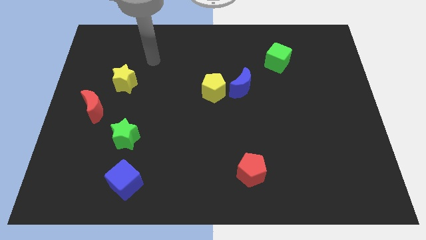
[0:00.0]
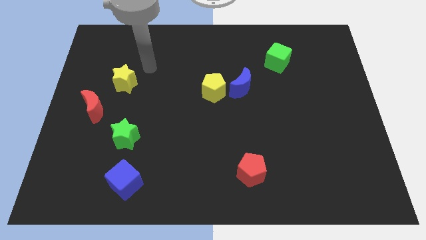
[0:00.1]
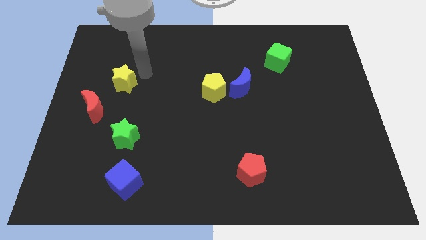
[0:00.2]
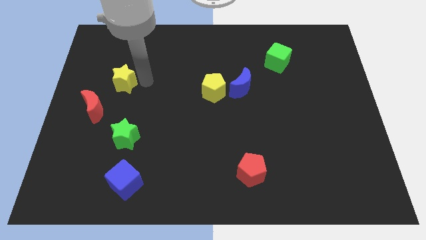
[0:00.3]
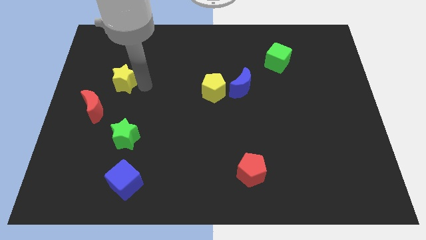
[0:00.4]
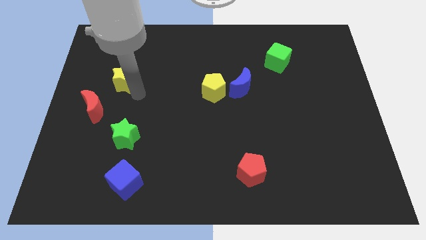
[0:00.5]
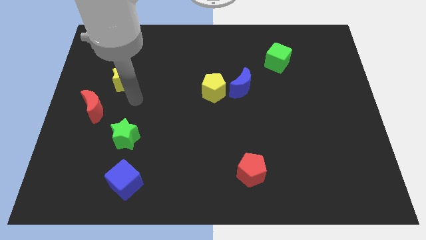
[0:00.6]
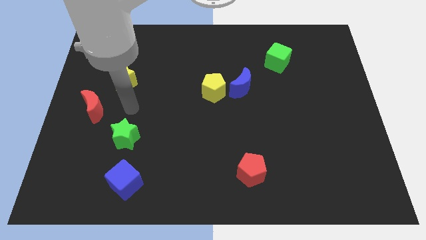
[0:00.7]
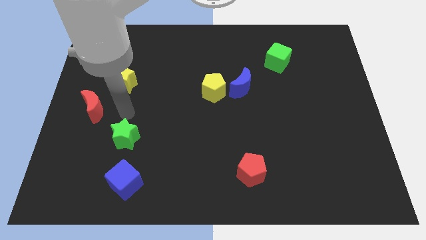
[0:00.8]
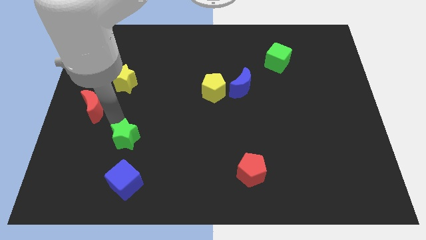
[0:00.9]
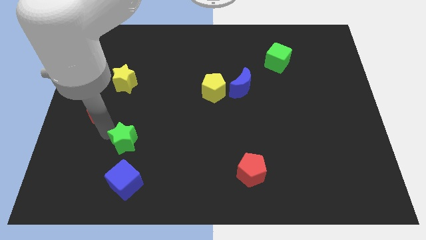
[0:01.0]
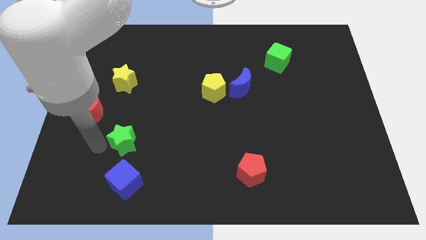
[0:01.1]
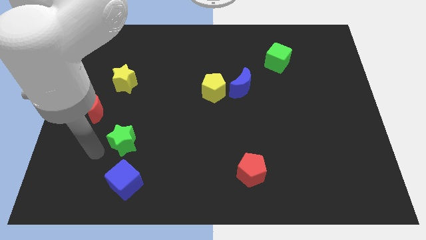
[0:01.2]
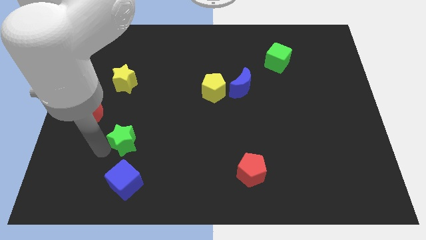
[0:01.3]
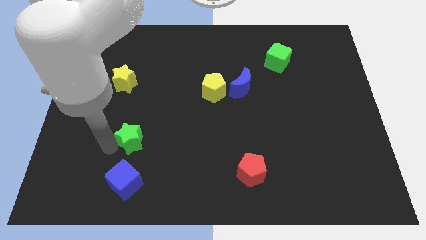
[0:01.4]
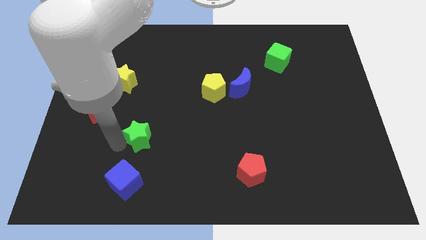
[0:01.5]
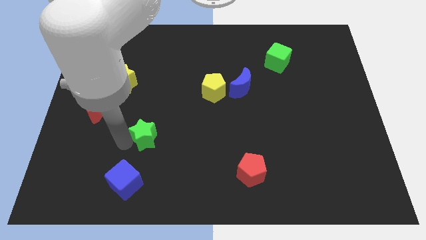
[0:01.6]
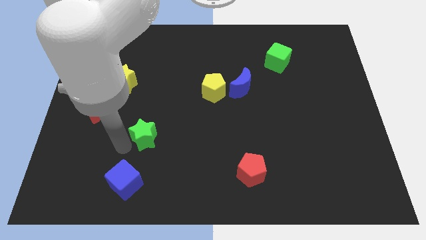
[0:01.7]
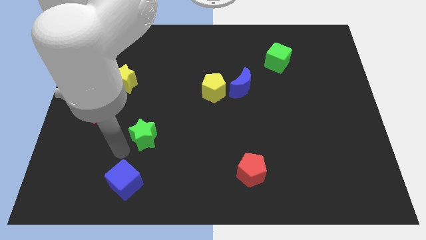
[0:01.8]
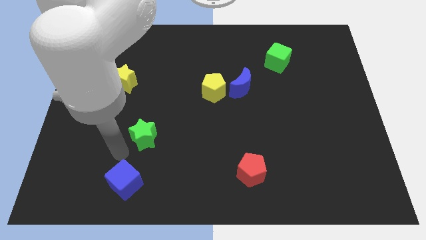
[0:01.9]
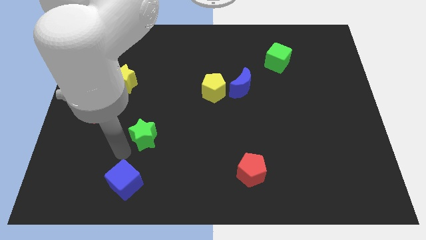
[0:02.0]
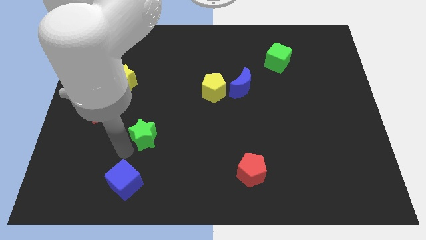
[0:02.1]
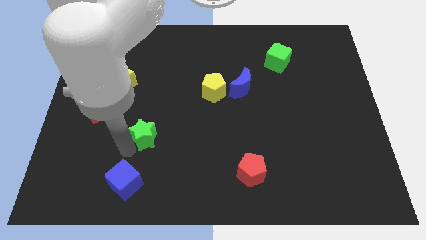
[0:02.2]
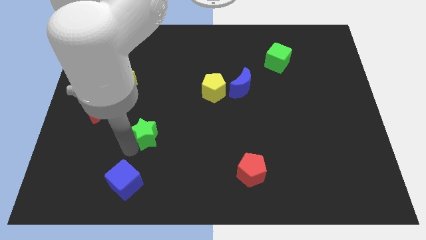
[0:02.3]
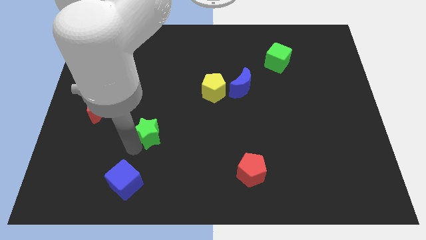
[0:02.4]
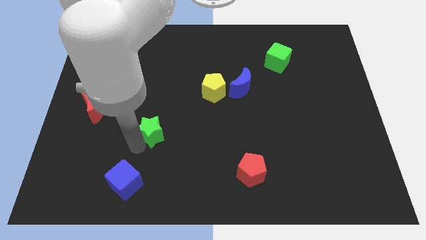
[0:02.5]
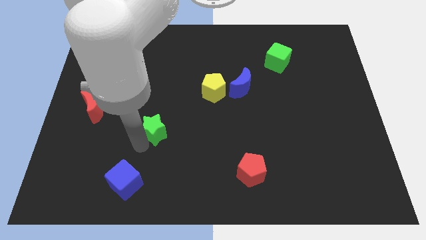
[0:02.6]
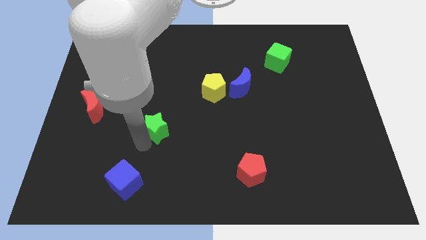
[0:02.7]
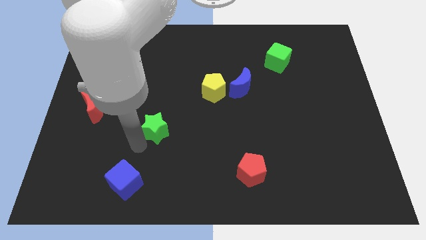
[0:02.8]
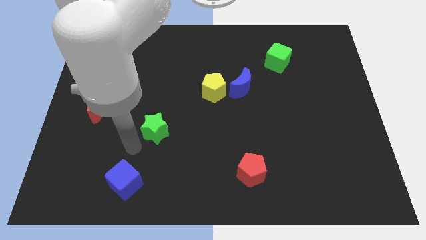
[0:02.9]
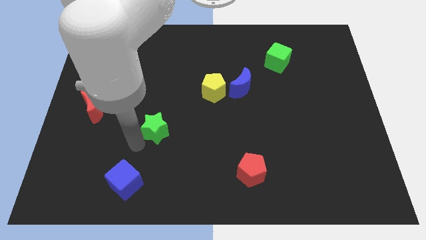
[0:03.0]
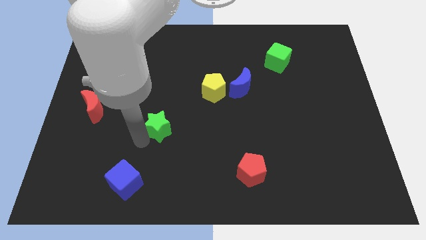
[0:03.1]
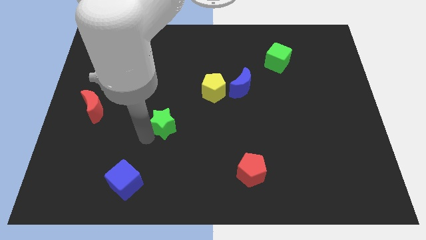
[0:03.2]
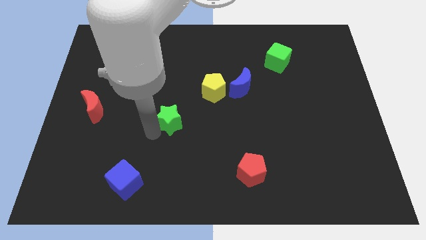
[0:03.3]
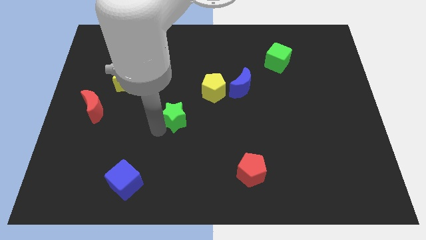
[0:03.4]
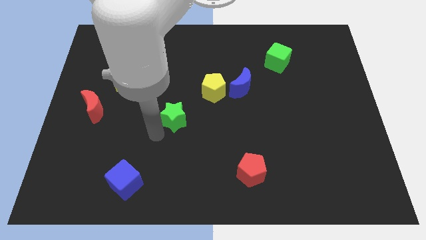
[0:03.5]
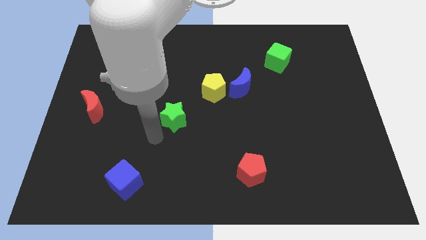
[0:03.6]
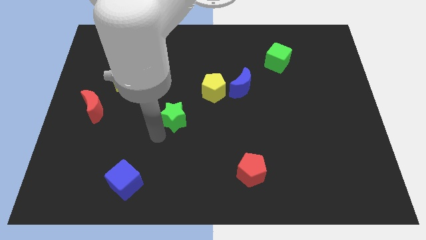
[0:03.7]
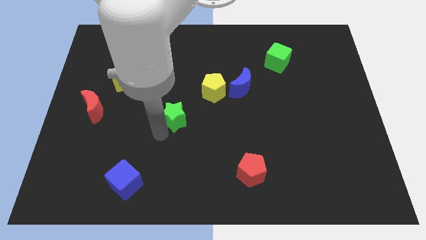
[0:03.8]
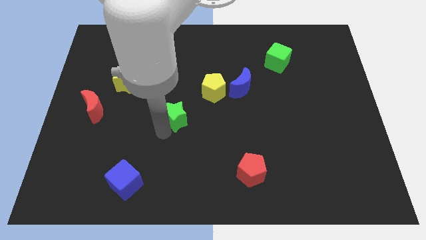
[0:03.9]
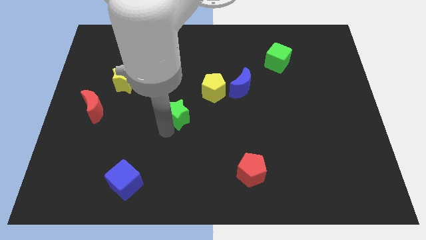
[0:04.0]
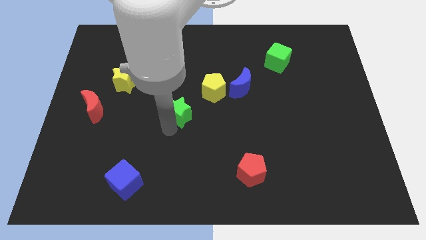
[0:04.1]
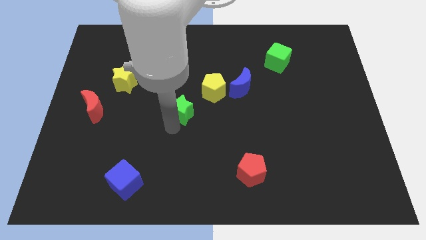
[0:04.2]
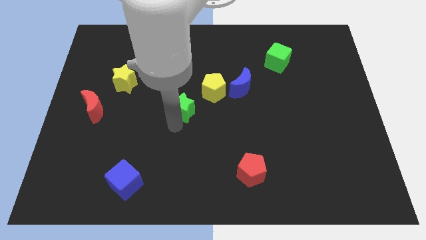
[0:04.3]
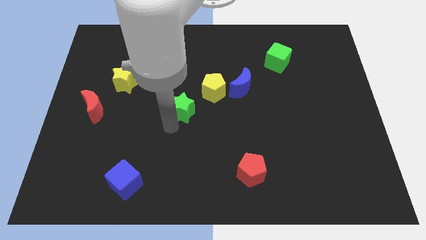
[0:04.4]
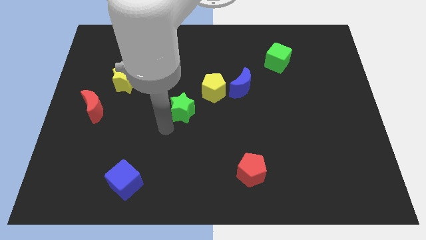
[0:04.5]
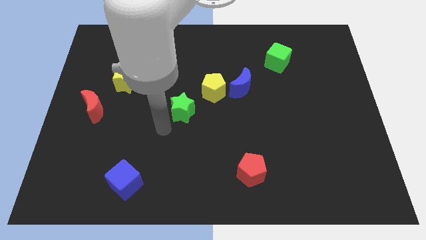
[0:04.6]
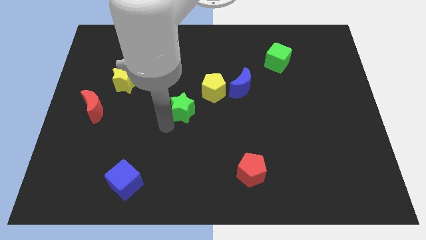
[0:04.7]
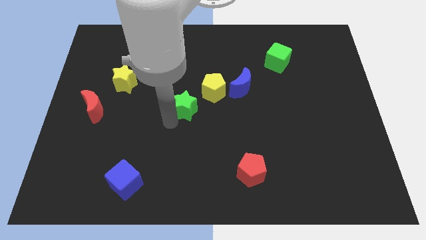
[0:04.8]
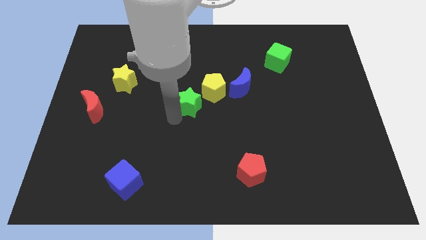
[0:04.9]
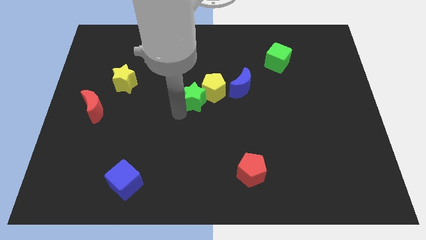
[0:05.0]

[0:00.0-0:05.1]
put the green star next to the yellow pentagon

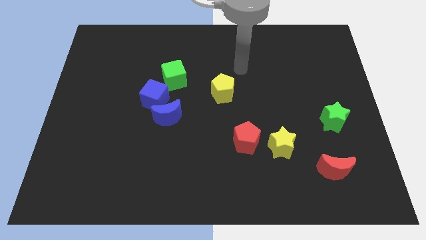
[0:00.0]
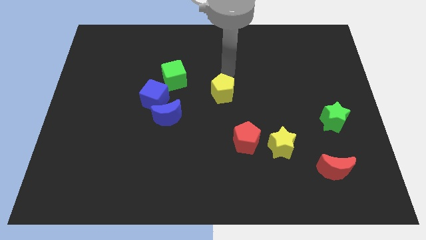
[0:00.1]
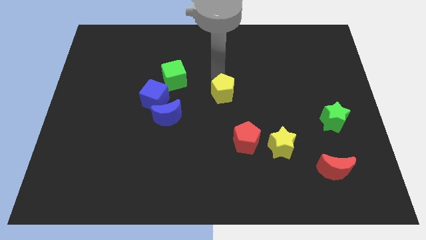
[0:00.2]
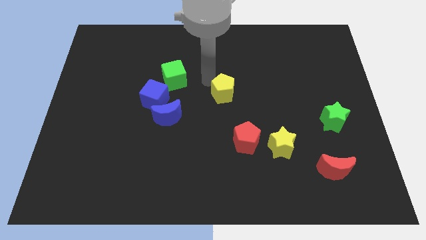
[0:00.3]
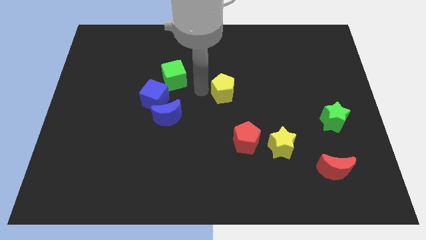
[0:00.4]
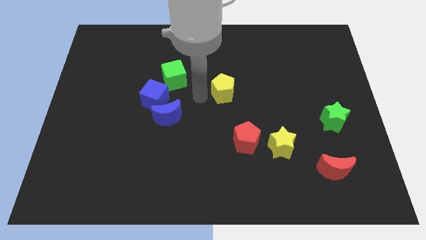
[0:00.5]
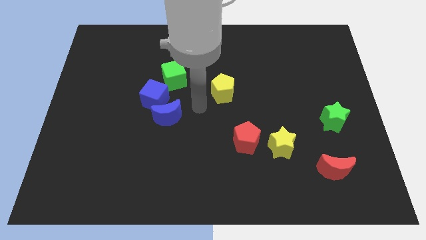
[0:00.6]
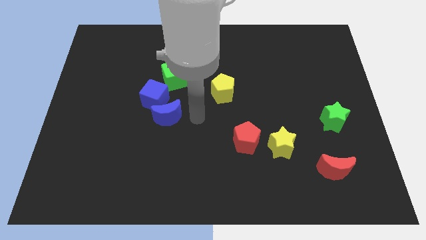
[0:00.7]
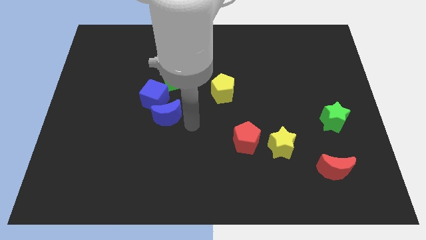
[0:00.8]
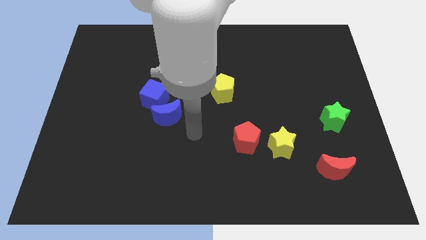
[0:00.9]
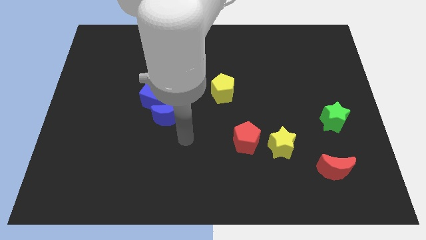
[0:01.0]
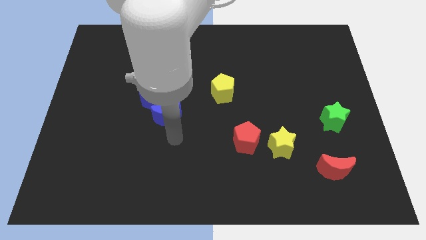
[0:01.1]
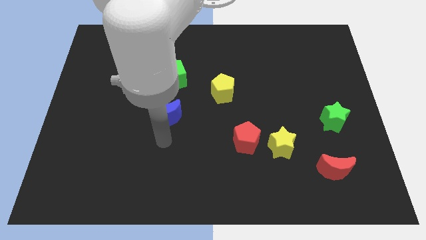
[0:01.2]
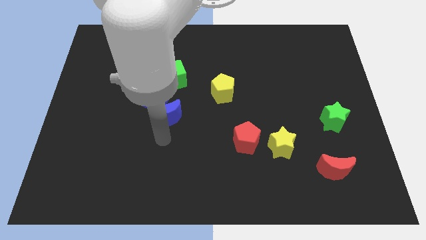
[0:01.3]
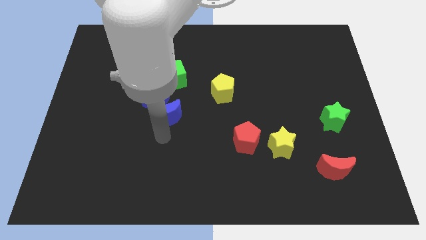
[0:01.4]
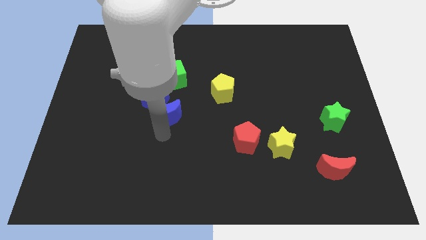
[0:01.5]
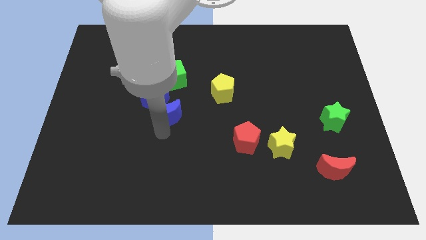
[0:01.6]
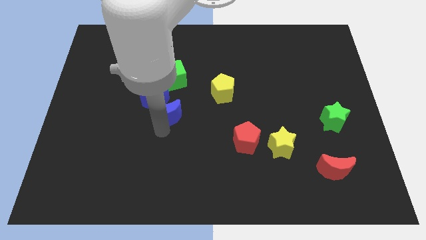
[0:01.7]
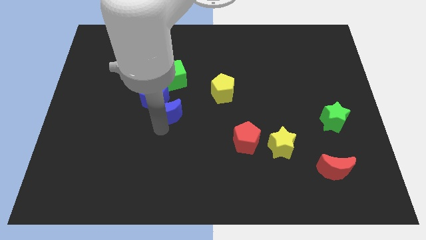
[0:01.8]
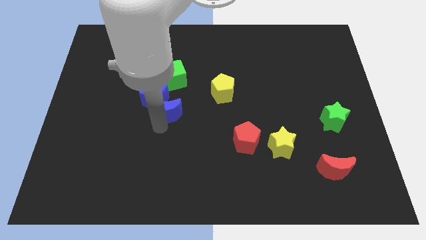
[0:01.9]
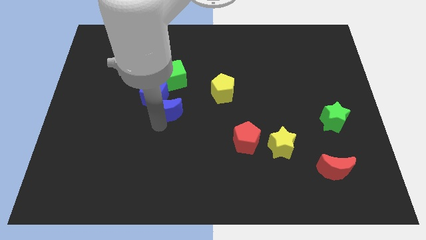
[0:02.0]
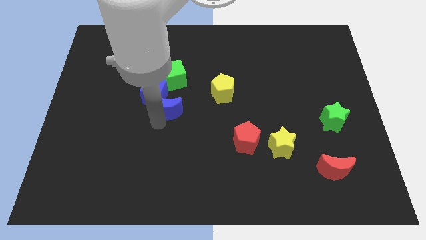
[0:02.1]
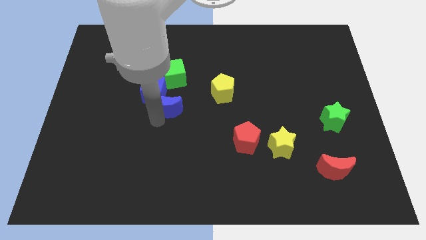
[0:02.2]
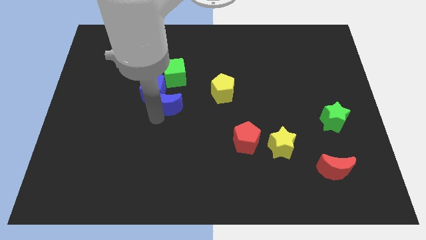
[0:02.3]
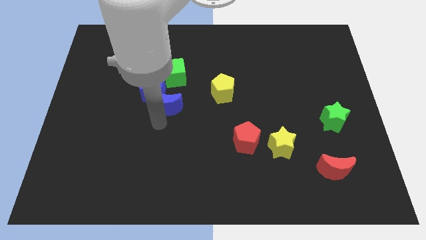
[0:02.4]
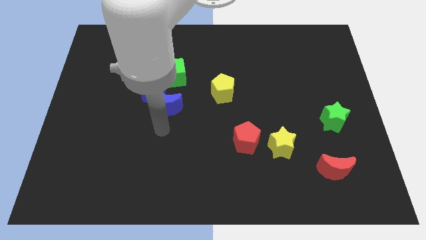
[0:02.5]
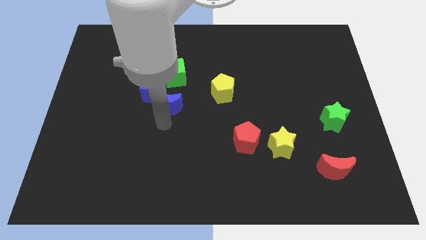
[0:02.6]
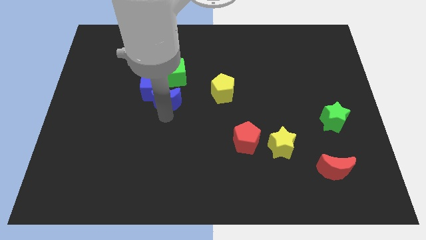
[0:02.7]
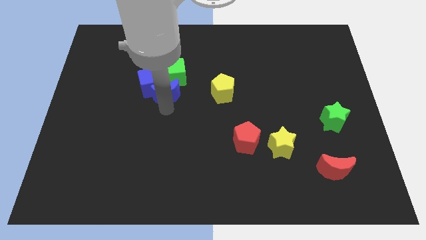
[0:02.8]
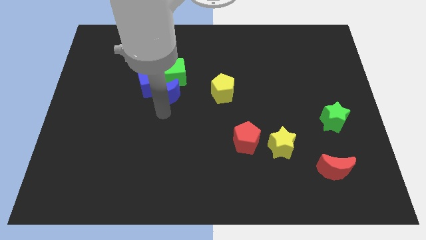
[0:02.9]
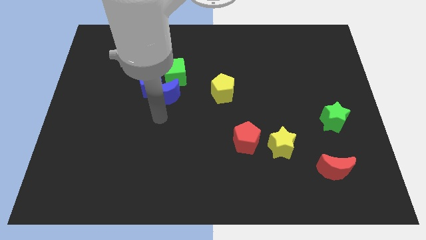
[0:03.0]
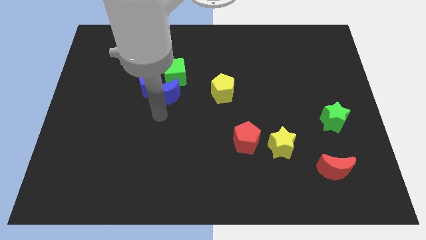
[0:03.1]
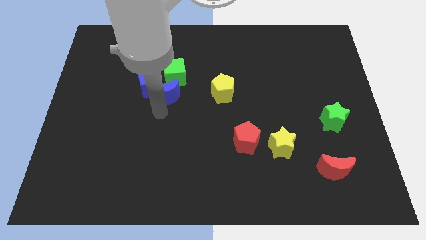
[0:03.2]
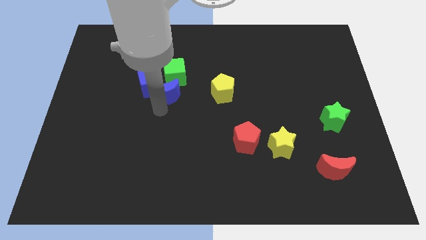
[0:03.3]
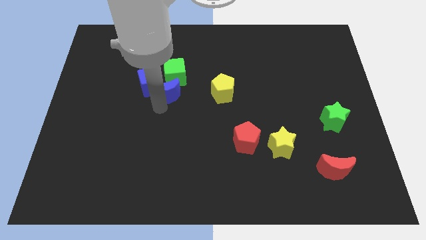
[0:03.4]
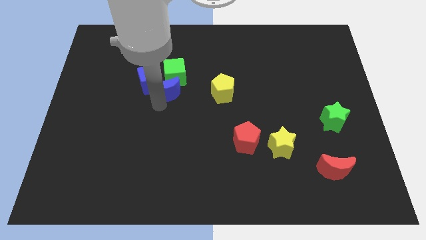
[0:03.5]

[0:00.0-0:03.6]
slide the blue moon towards the green cube
